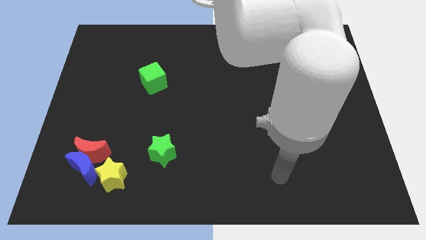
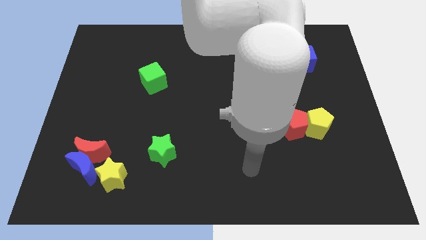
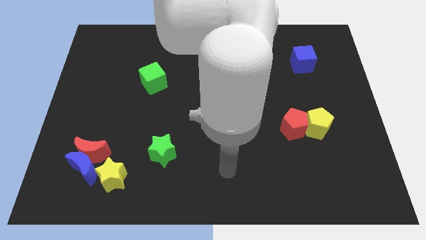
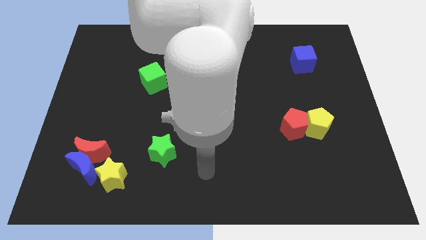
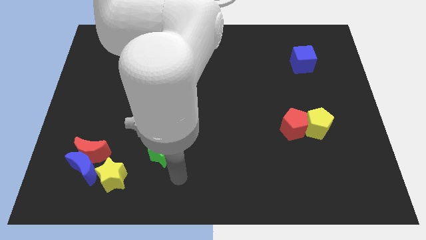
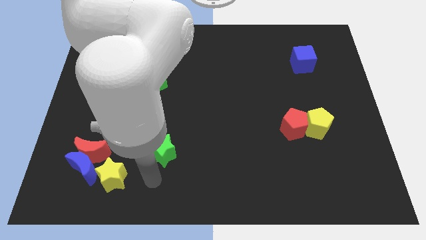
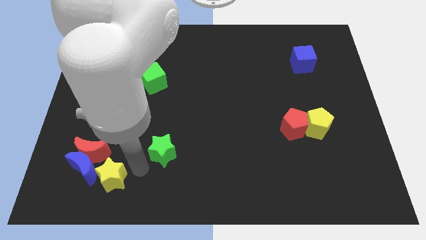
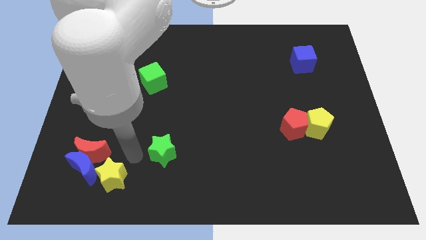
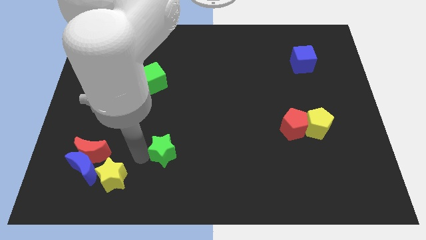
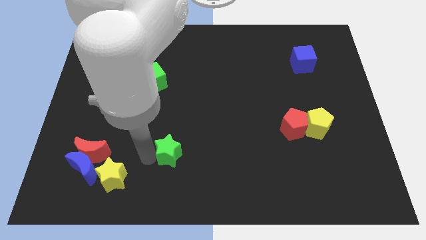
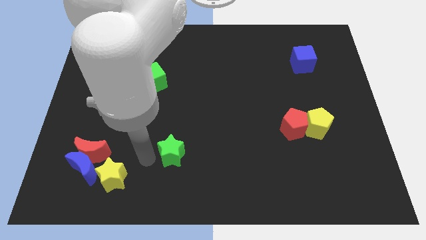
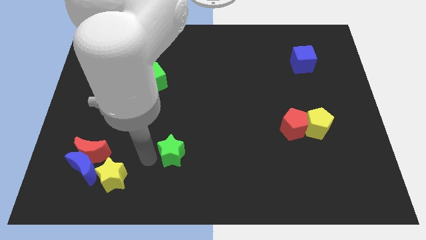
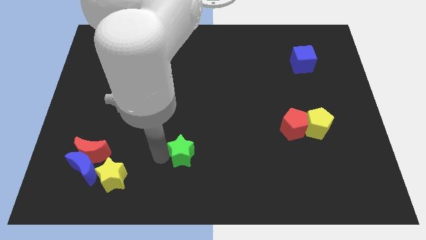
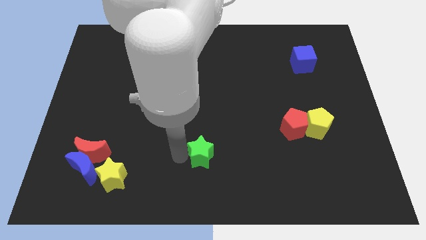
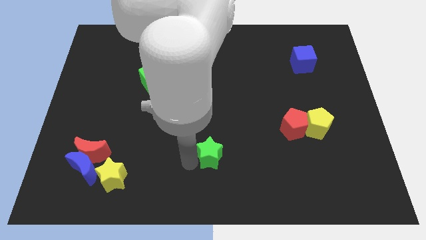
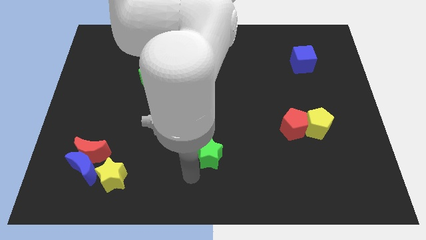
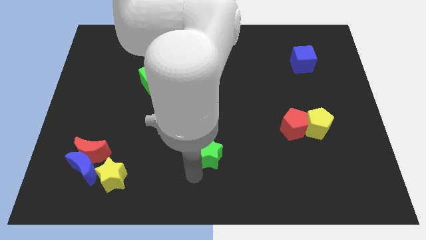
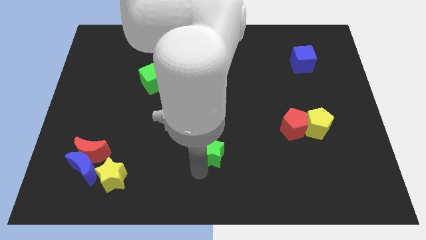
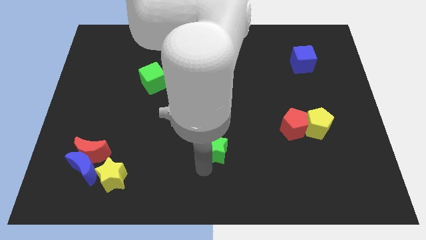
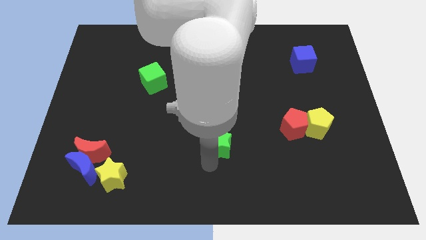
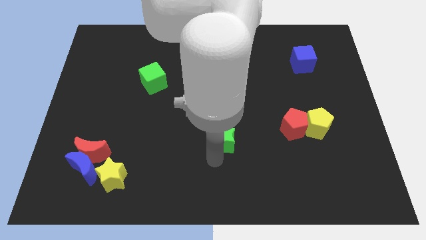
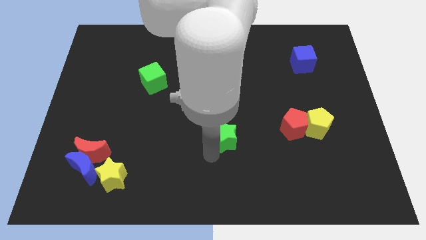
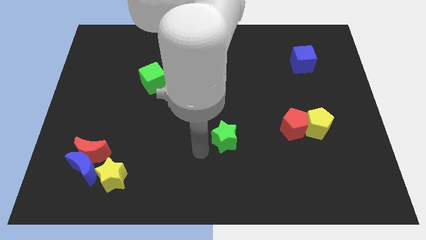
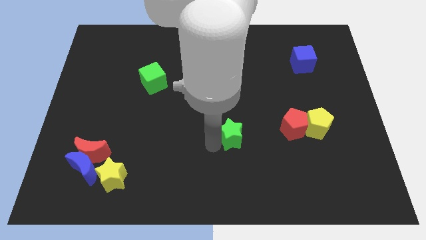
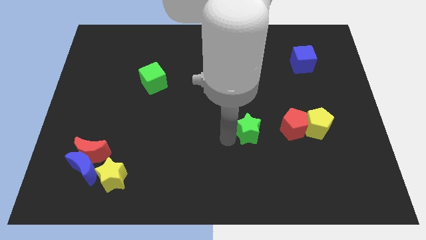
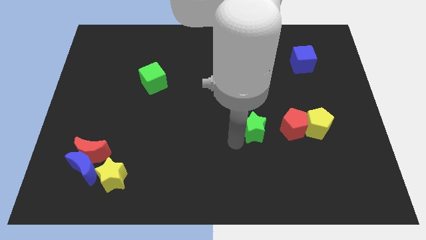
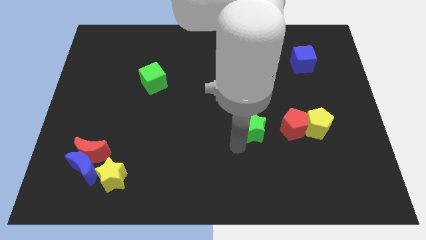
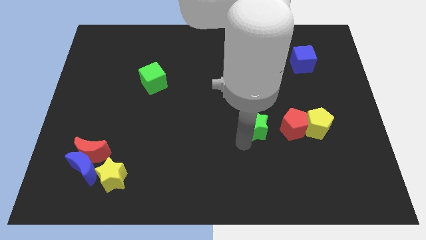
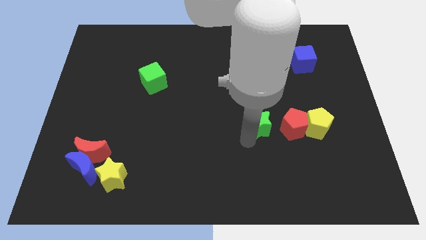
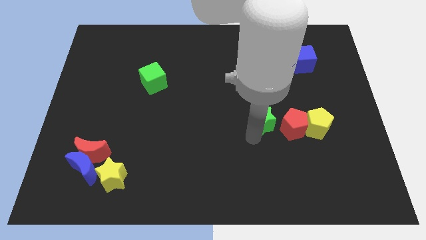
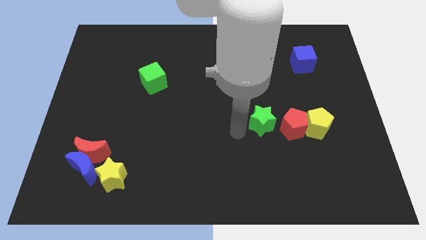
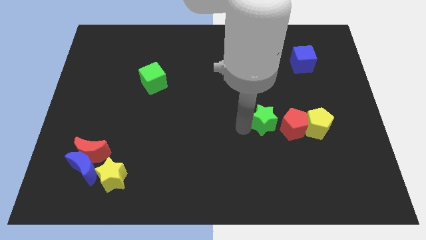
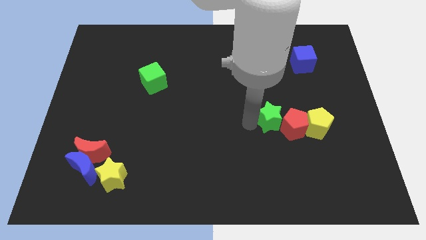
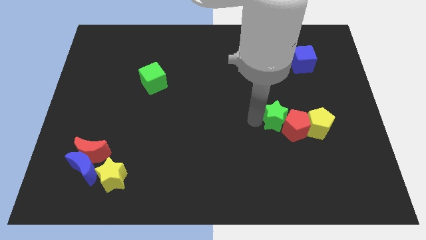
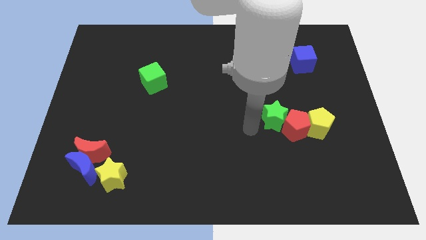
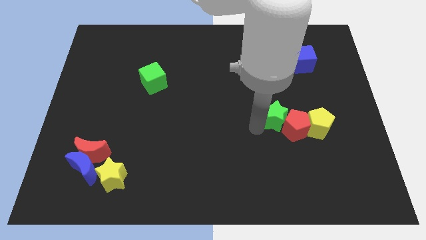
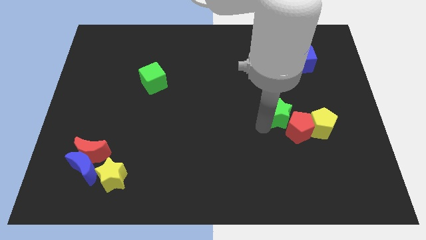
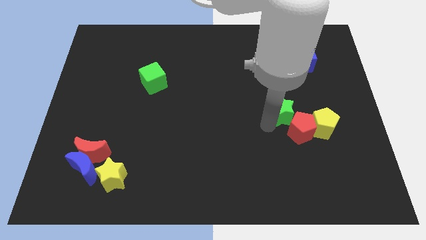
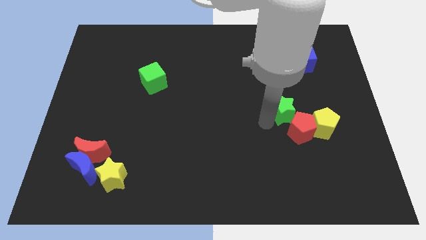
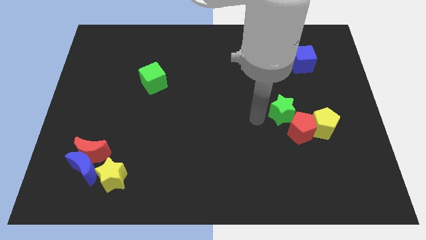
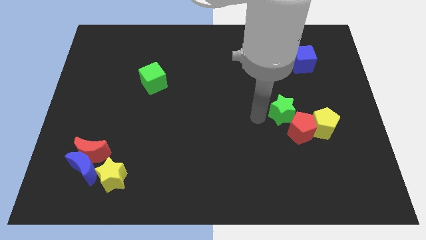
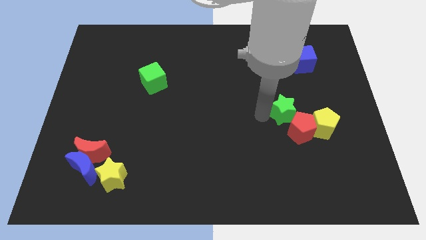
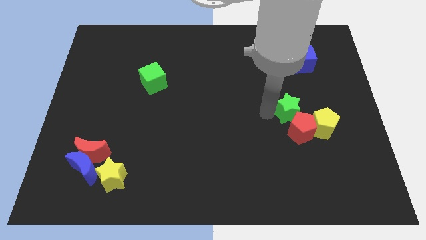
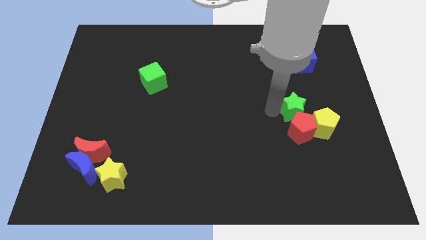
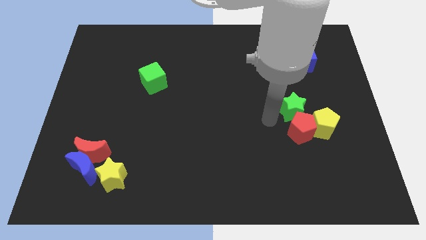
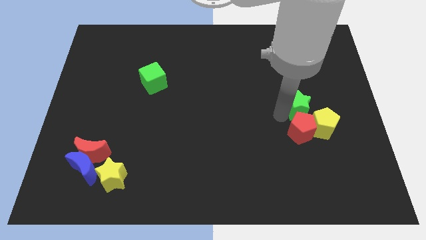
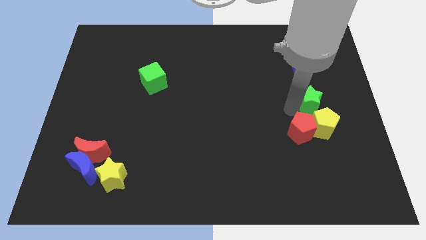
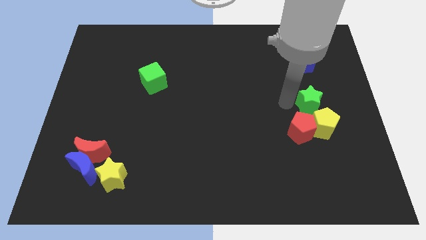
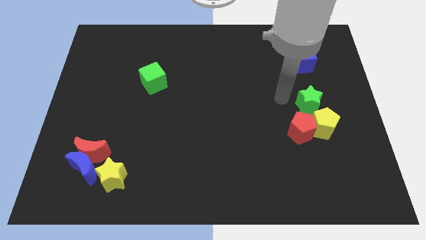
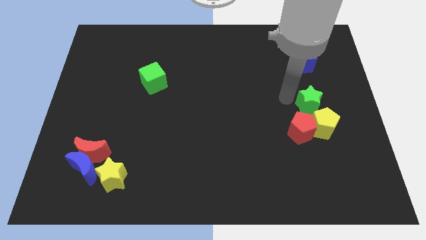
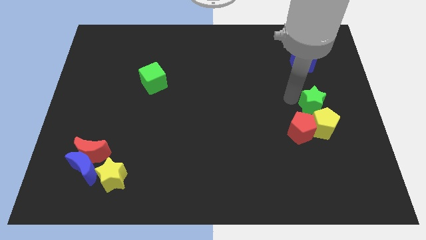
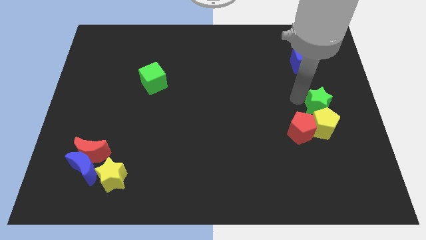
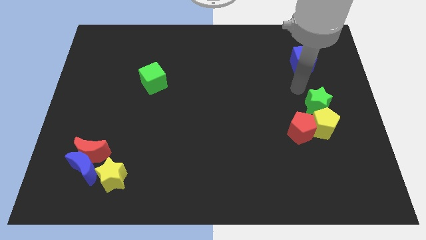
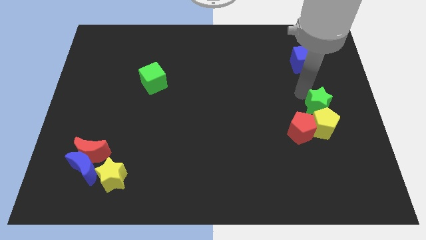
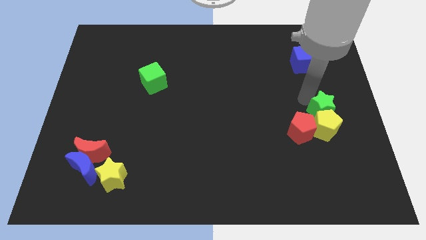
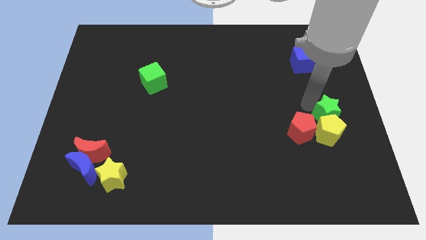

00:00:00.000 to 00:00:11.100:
push the green star right of the red pentagon

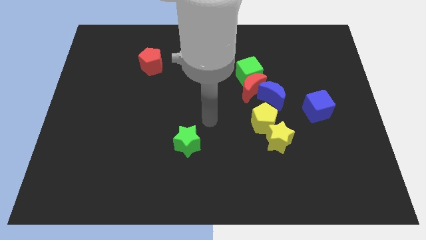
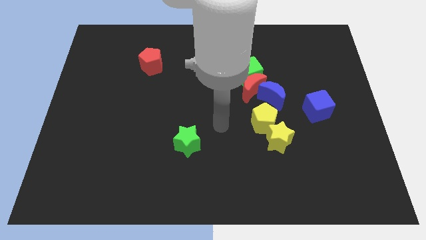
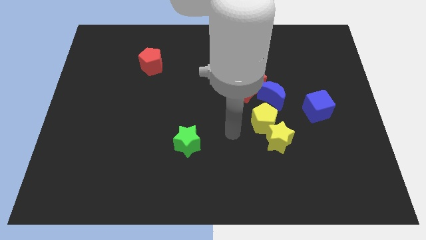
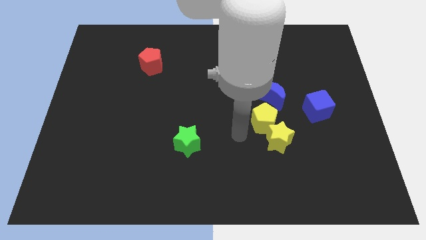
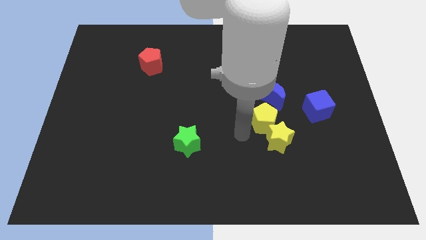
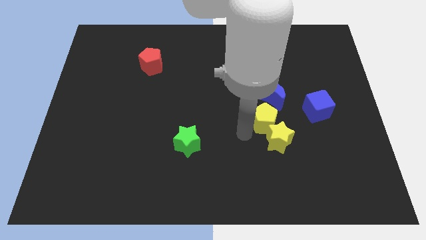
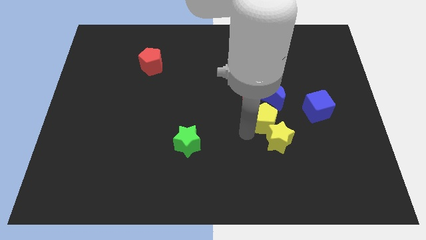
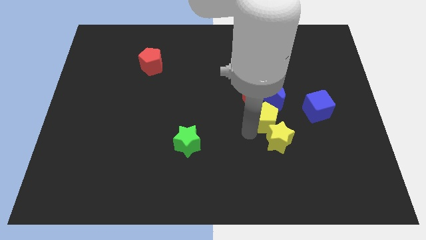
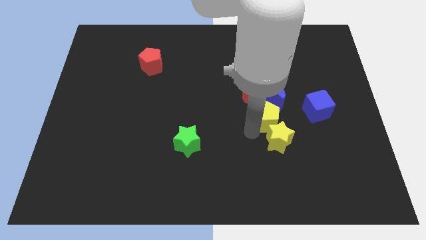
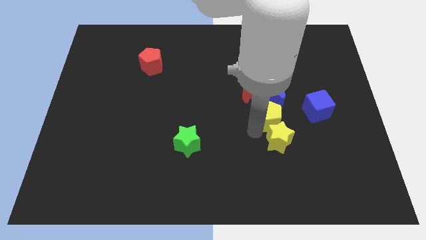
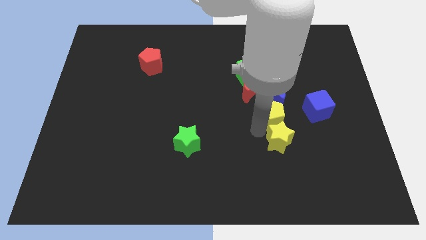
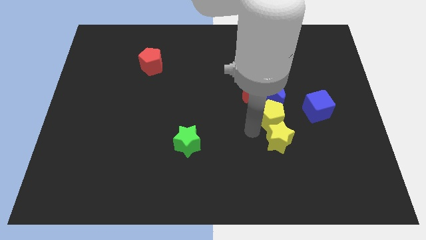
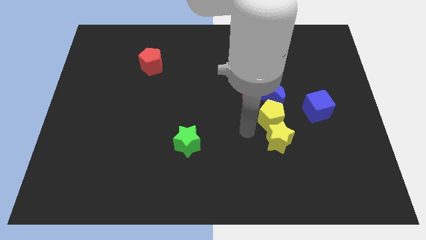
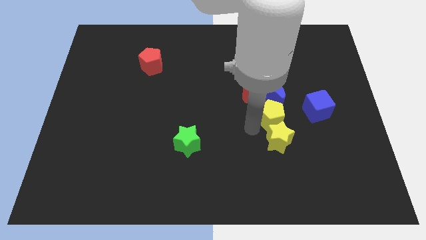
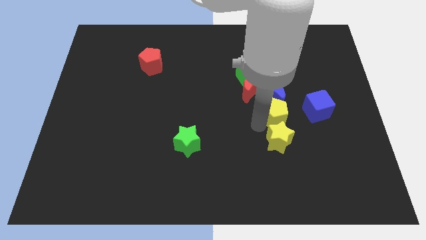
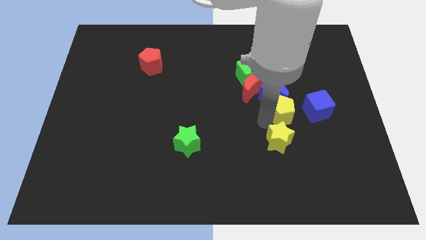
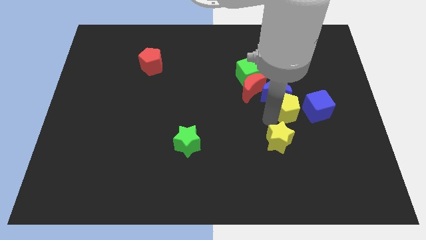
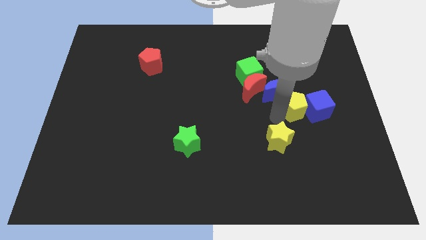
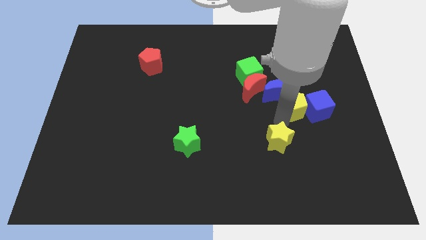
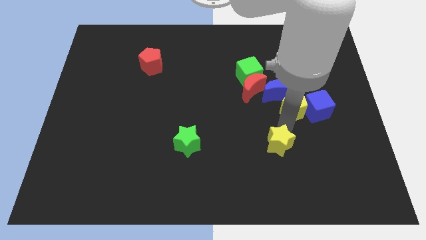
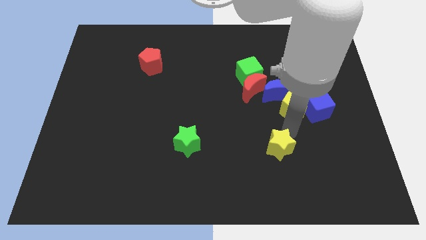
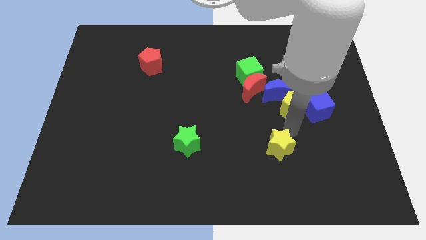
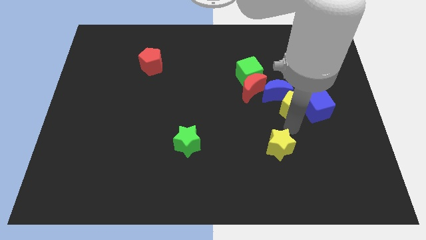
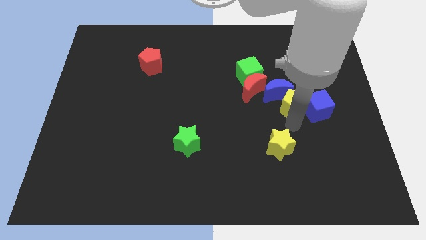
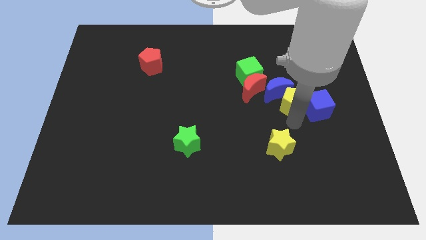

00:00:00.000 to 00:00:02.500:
push the yellow pentagon right of the red moon
